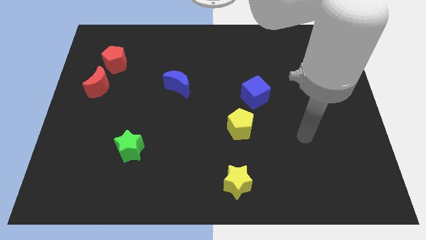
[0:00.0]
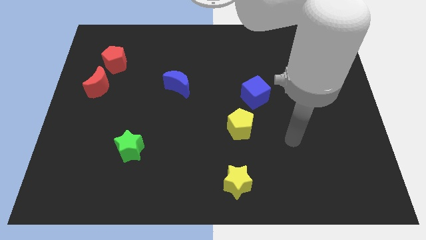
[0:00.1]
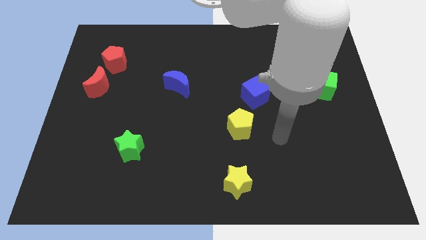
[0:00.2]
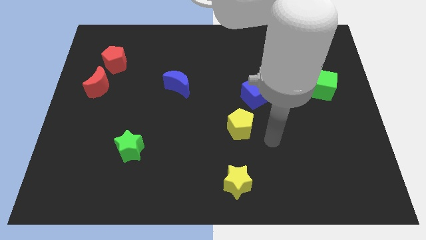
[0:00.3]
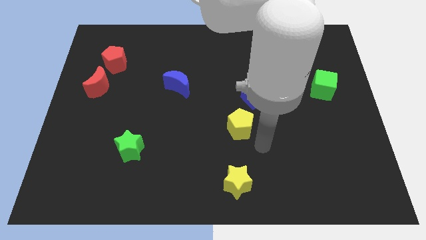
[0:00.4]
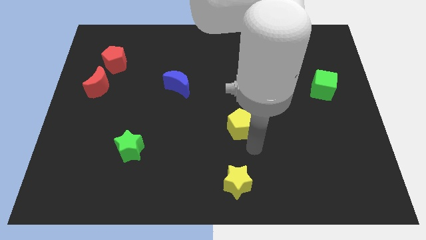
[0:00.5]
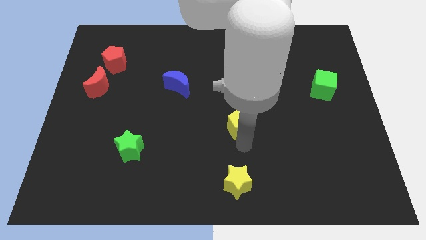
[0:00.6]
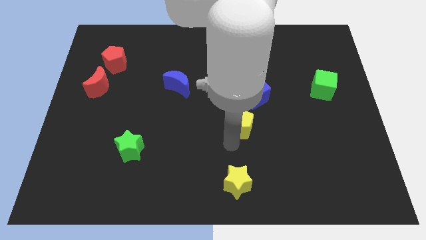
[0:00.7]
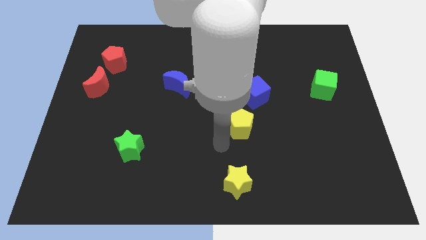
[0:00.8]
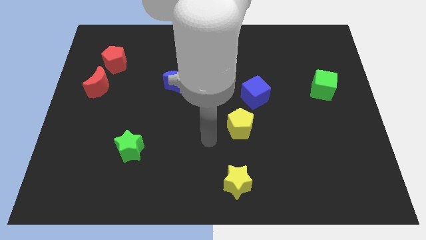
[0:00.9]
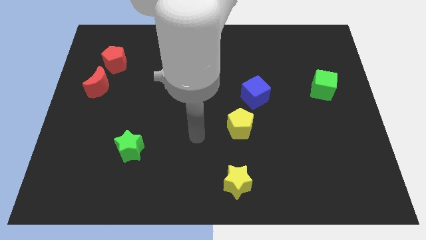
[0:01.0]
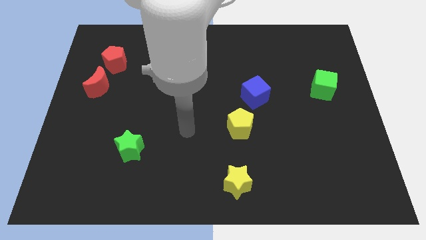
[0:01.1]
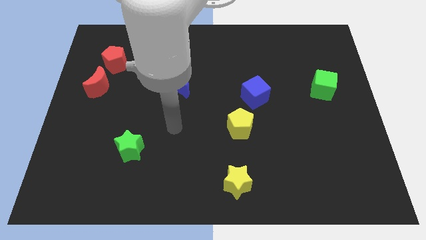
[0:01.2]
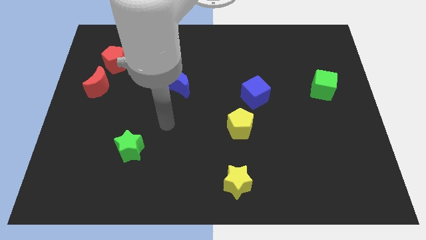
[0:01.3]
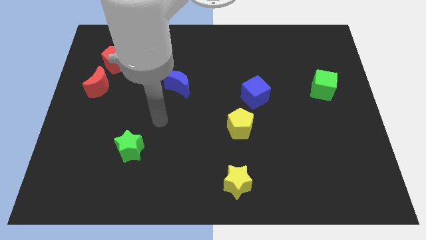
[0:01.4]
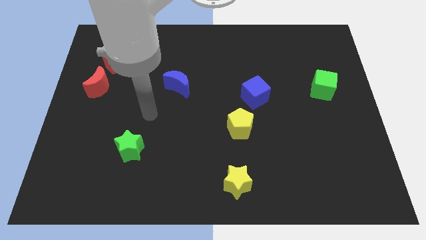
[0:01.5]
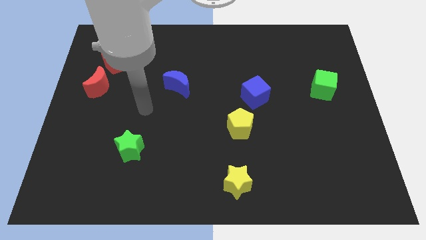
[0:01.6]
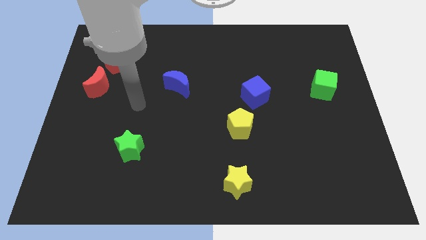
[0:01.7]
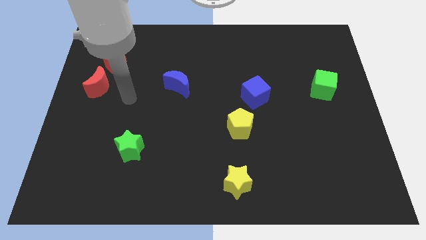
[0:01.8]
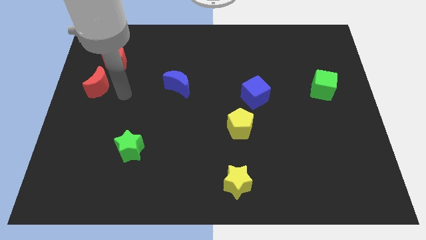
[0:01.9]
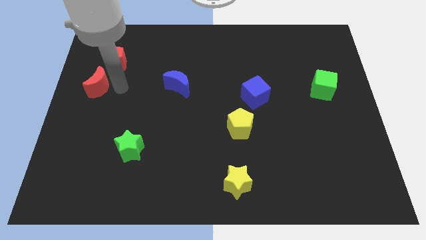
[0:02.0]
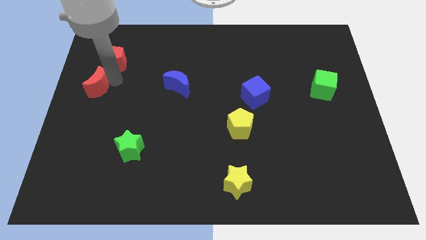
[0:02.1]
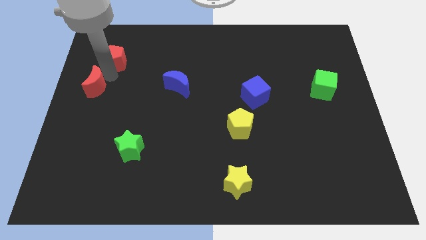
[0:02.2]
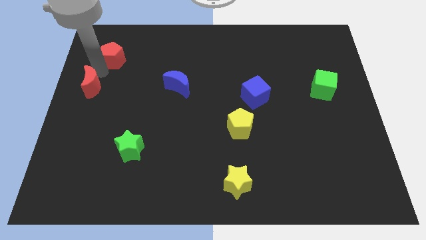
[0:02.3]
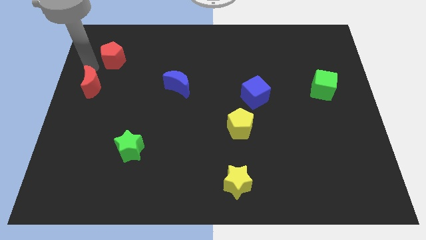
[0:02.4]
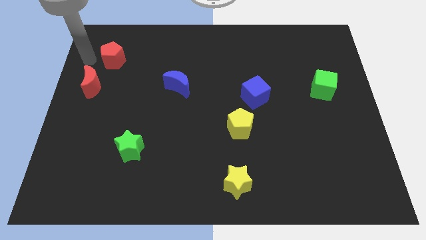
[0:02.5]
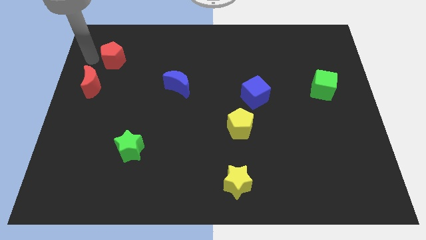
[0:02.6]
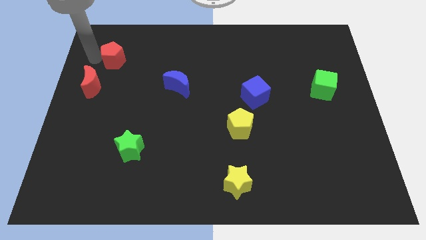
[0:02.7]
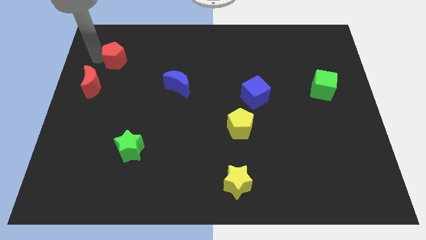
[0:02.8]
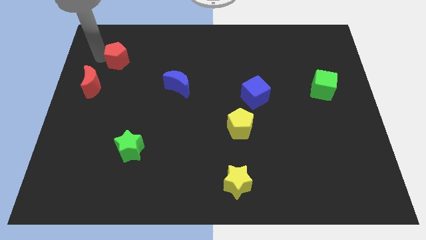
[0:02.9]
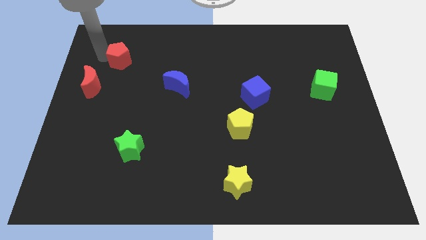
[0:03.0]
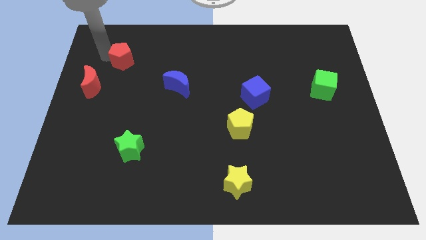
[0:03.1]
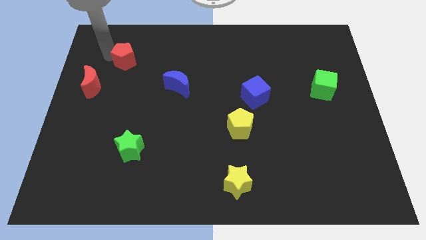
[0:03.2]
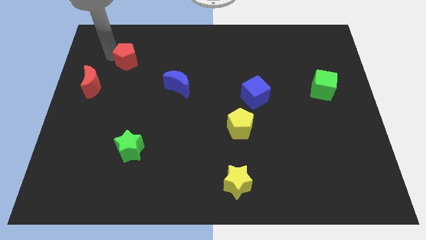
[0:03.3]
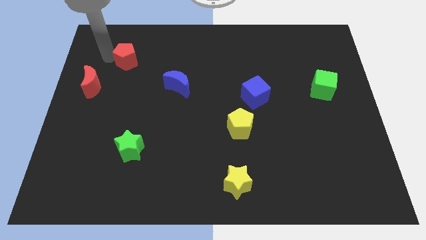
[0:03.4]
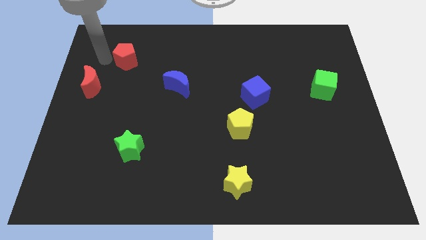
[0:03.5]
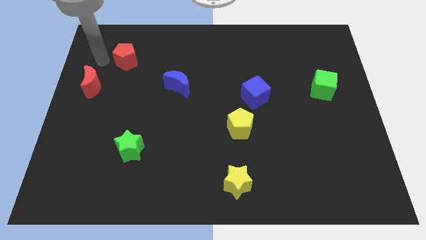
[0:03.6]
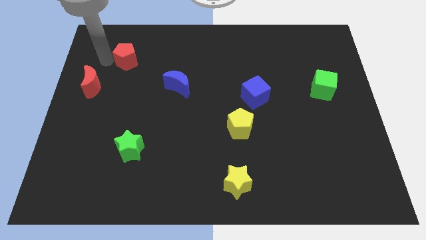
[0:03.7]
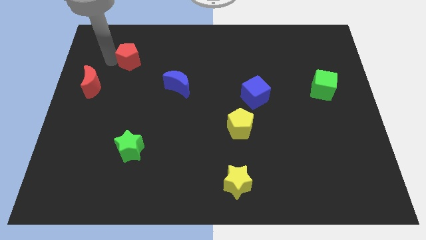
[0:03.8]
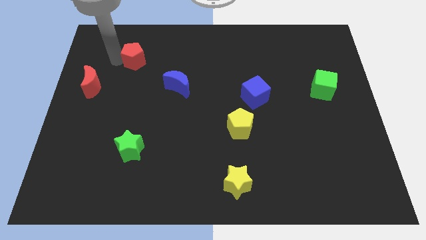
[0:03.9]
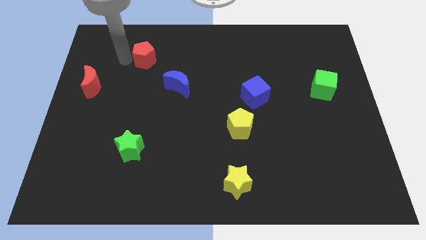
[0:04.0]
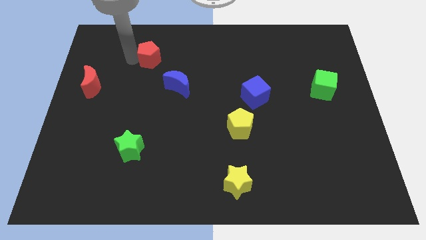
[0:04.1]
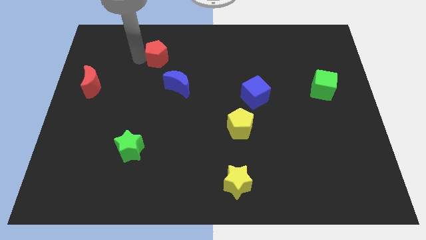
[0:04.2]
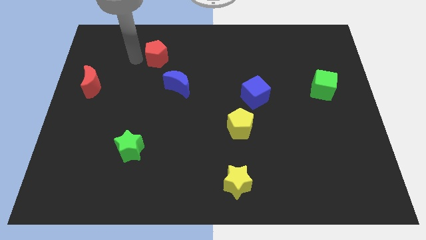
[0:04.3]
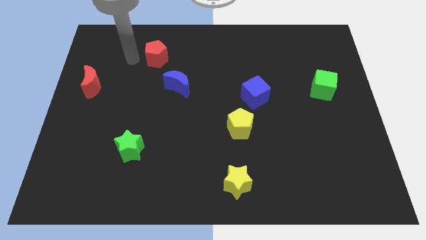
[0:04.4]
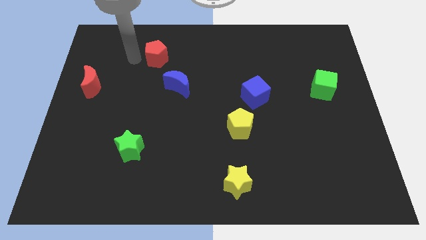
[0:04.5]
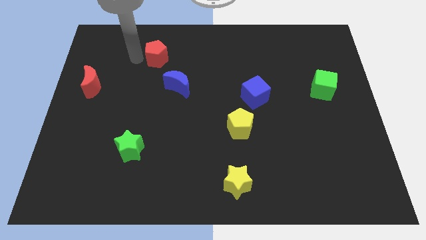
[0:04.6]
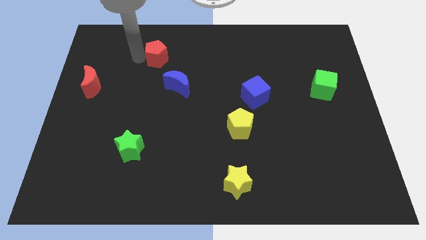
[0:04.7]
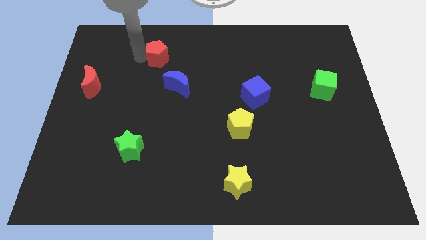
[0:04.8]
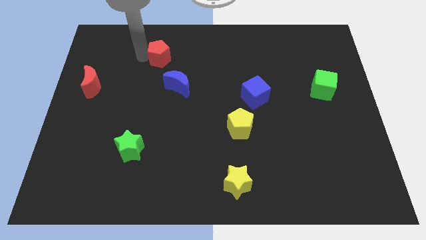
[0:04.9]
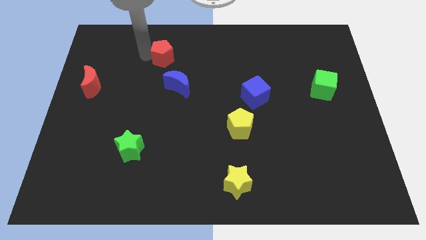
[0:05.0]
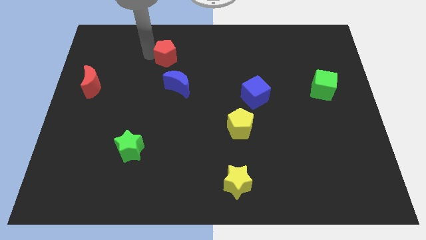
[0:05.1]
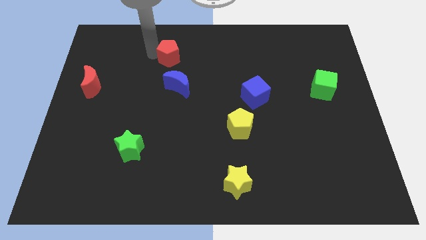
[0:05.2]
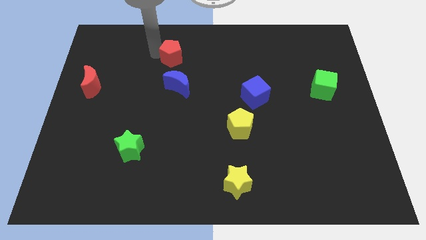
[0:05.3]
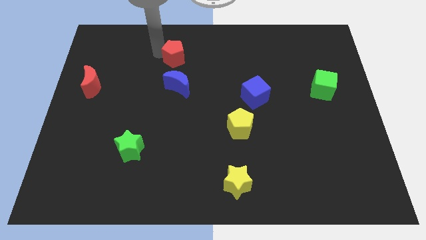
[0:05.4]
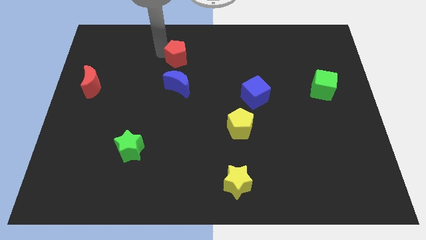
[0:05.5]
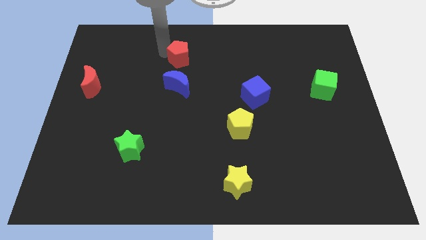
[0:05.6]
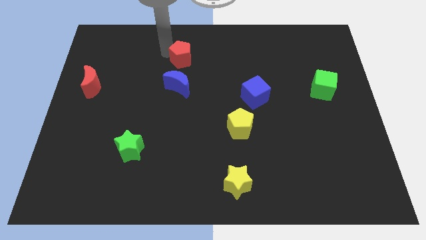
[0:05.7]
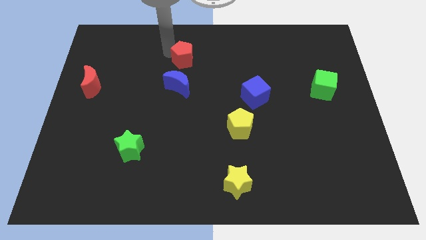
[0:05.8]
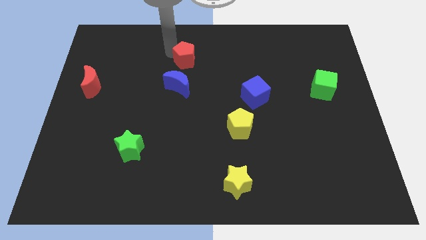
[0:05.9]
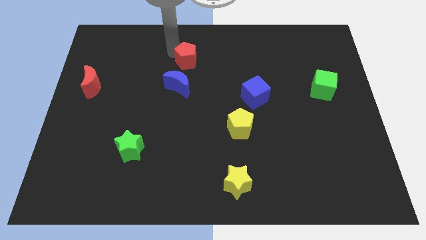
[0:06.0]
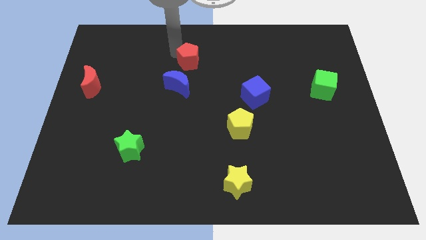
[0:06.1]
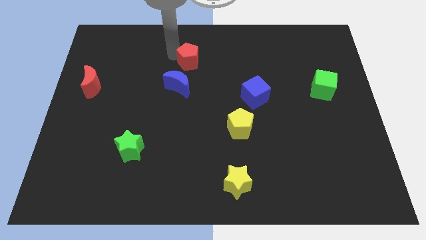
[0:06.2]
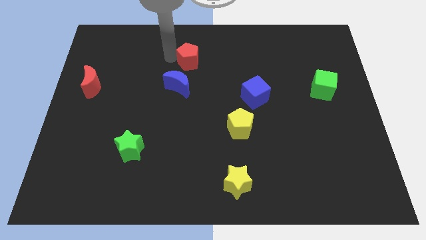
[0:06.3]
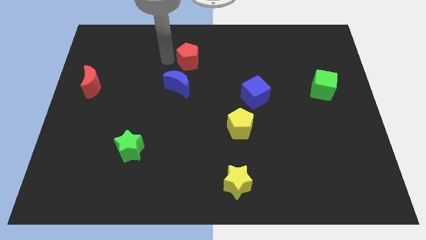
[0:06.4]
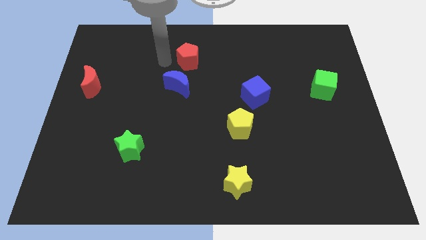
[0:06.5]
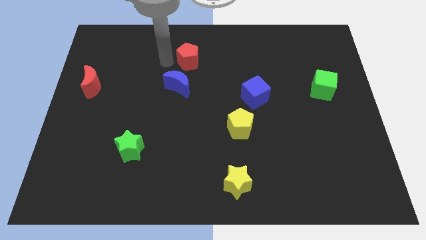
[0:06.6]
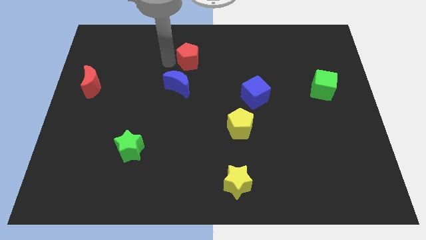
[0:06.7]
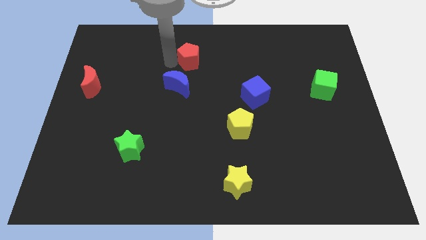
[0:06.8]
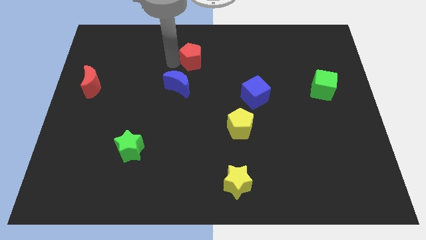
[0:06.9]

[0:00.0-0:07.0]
move the red pentagon to the right

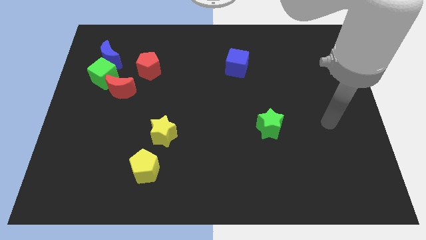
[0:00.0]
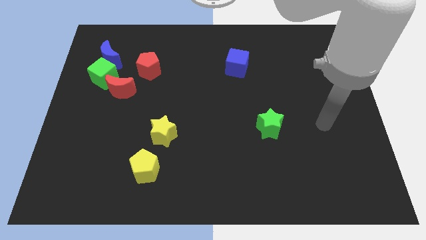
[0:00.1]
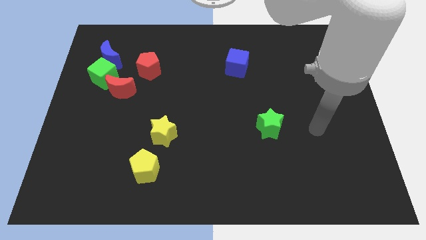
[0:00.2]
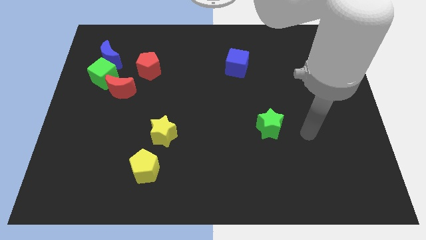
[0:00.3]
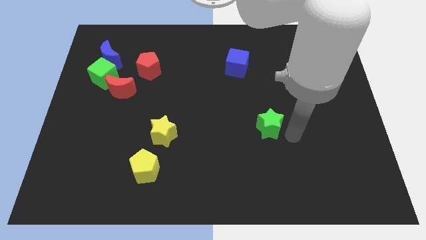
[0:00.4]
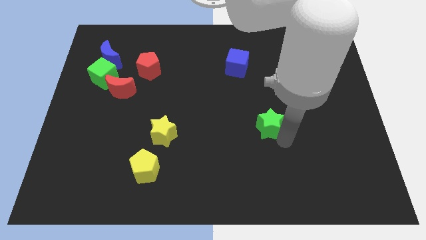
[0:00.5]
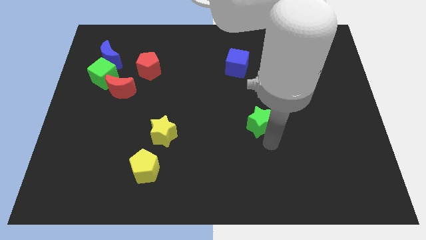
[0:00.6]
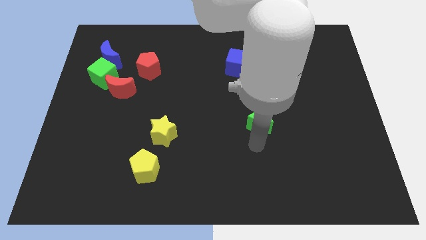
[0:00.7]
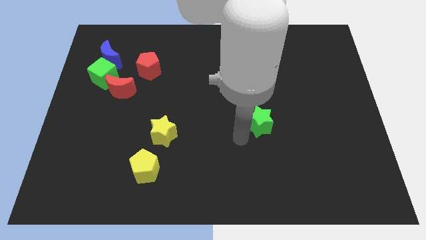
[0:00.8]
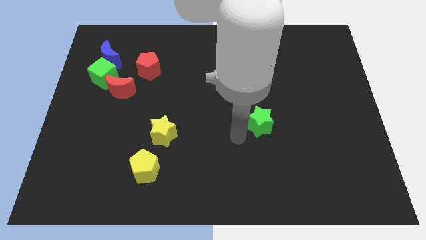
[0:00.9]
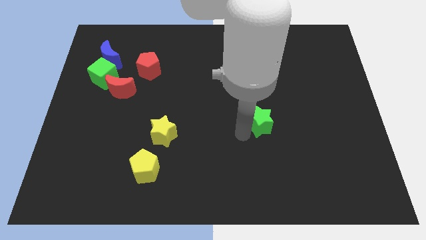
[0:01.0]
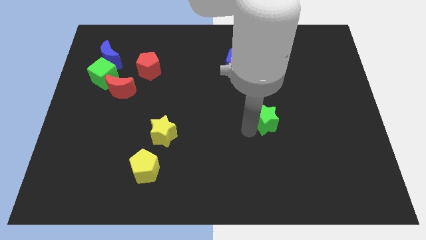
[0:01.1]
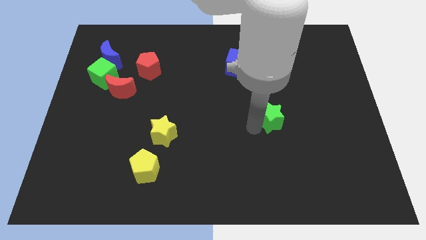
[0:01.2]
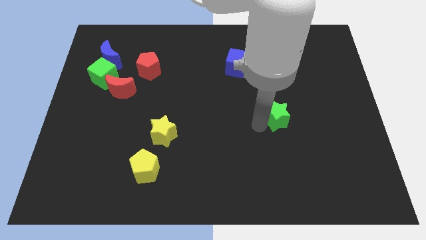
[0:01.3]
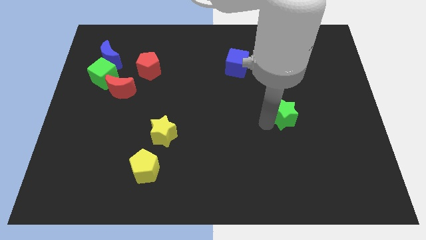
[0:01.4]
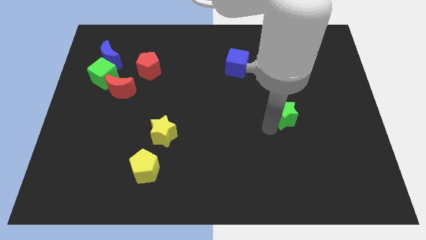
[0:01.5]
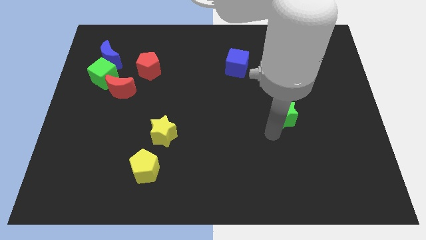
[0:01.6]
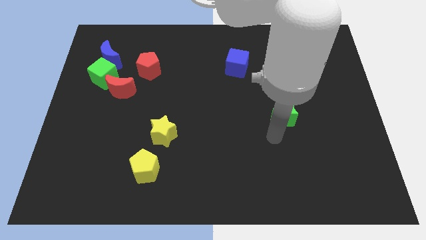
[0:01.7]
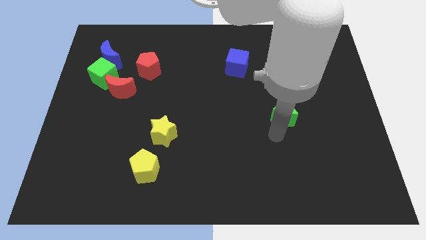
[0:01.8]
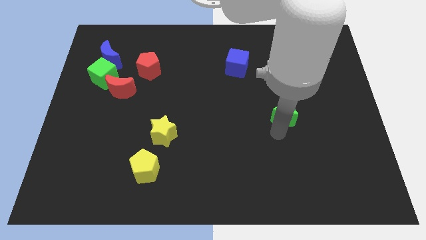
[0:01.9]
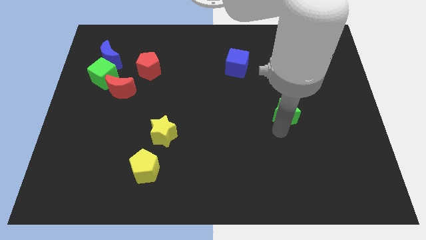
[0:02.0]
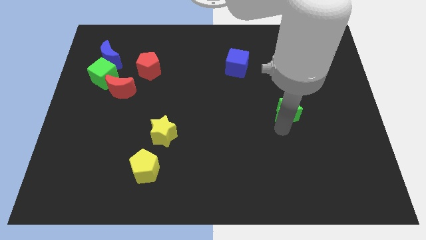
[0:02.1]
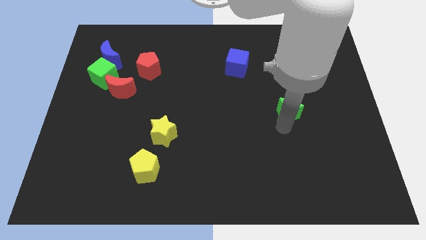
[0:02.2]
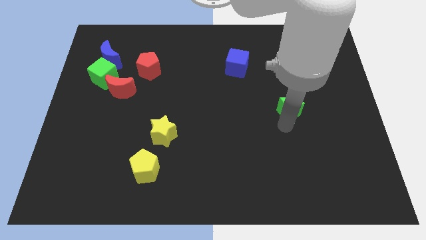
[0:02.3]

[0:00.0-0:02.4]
slightly slide the green star up and to the right diagonally
